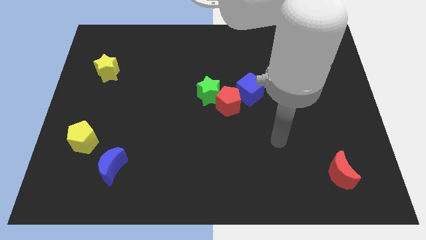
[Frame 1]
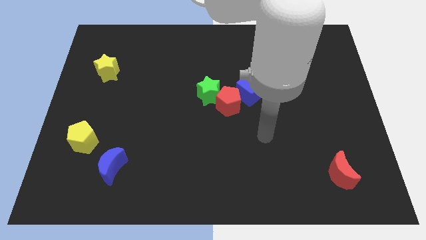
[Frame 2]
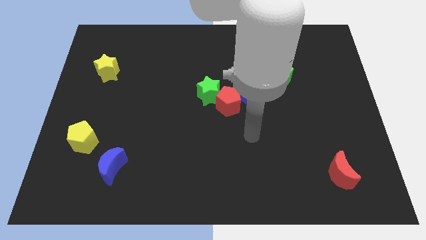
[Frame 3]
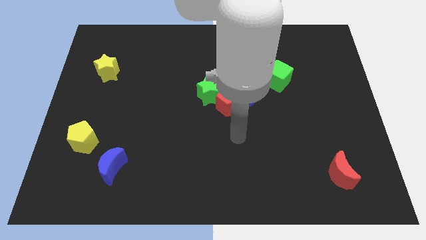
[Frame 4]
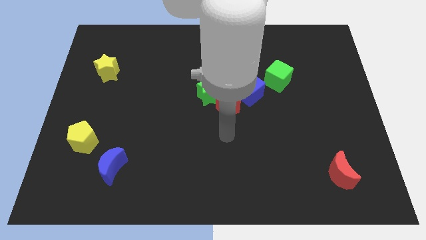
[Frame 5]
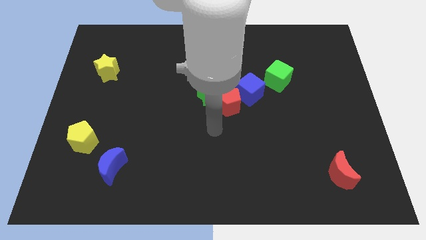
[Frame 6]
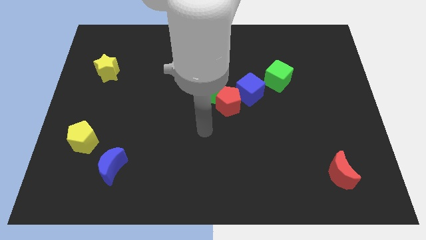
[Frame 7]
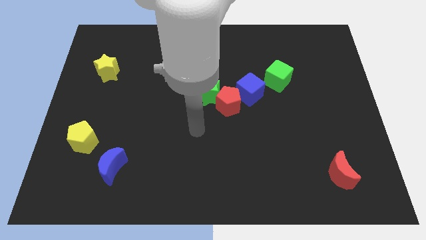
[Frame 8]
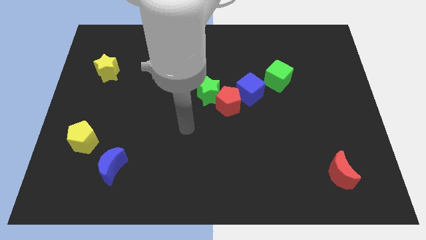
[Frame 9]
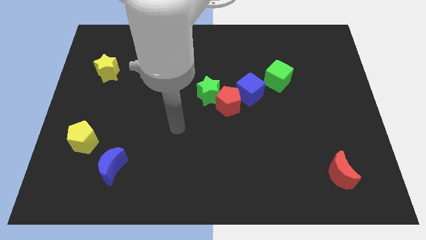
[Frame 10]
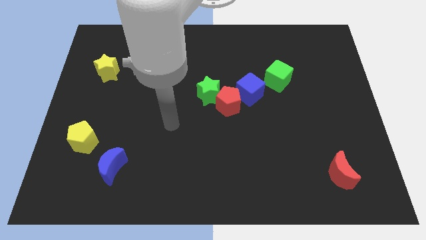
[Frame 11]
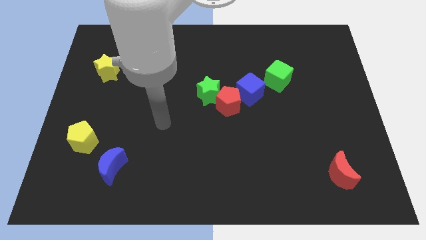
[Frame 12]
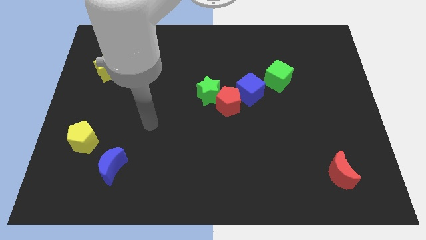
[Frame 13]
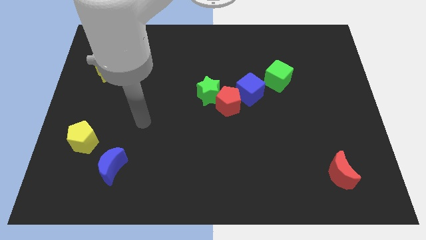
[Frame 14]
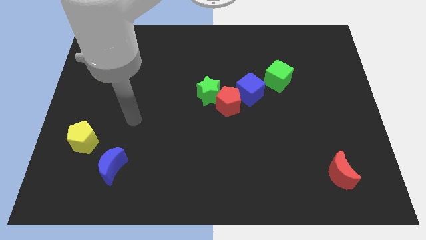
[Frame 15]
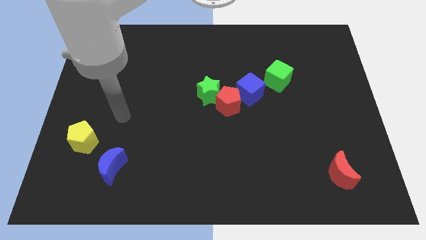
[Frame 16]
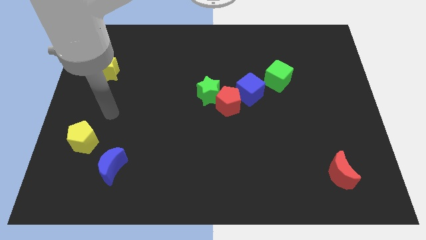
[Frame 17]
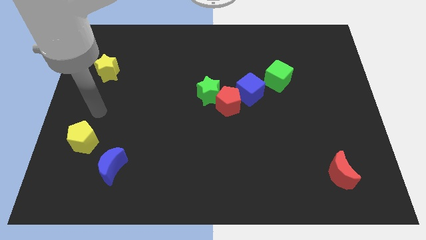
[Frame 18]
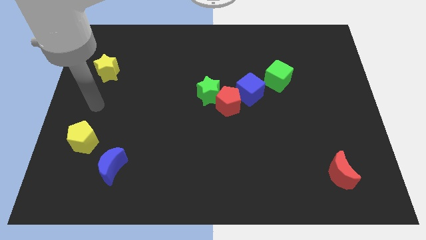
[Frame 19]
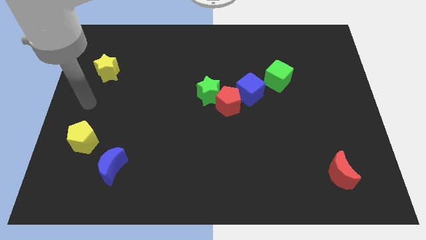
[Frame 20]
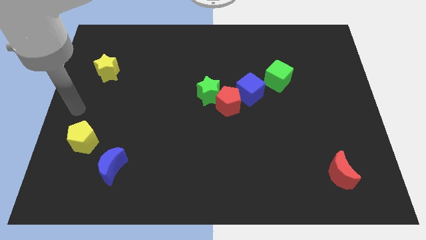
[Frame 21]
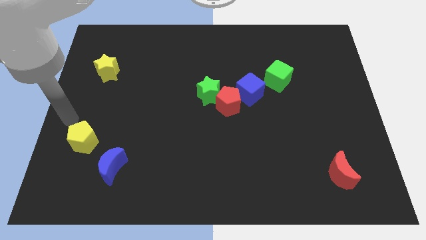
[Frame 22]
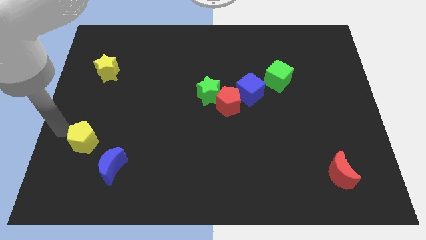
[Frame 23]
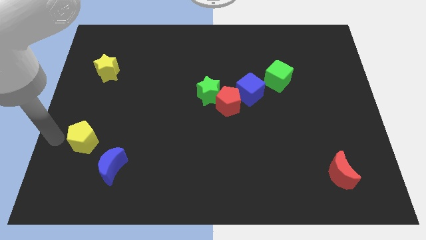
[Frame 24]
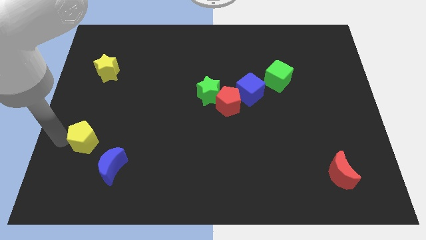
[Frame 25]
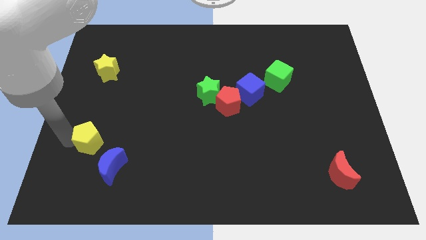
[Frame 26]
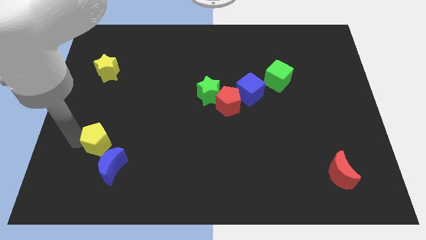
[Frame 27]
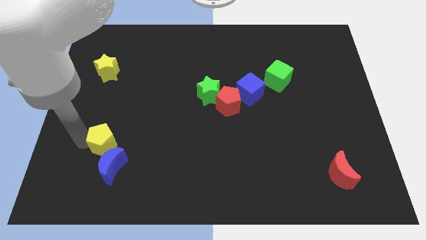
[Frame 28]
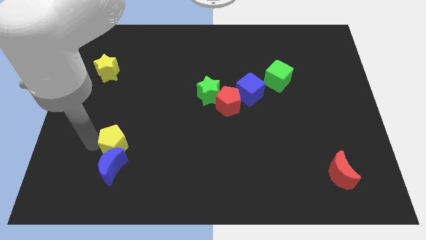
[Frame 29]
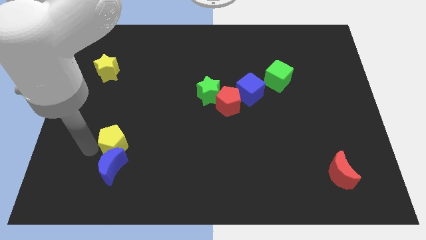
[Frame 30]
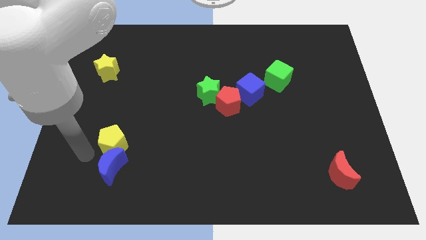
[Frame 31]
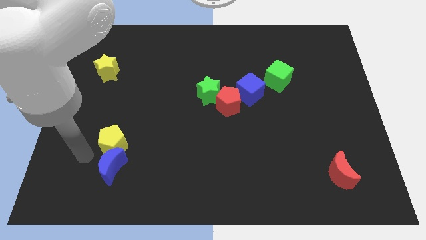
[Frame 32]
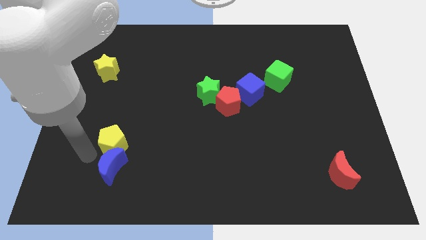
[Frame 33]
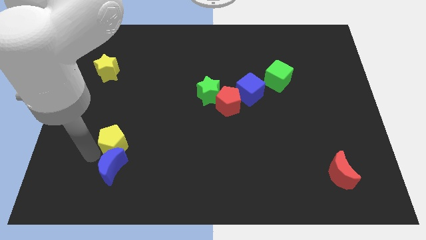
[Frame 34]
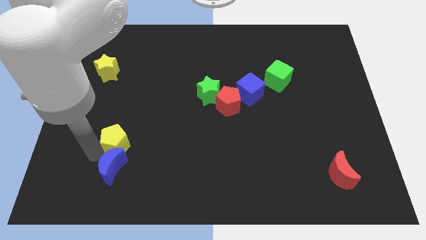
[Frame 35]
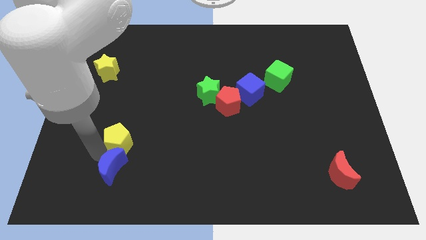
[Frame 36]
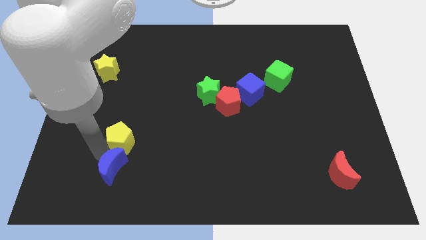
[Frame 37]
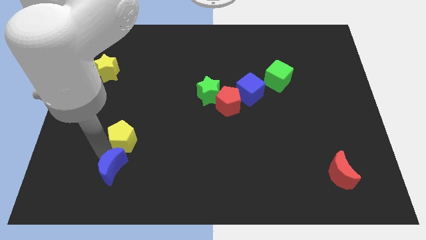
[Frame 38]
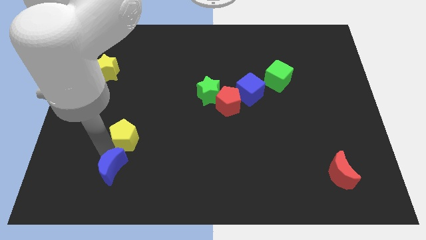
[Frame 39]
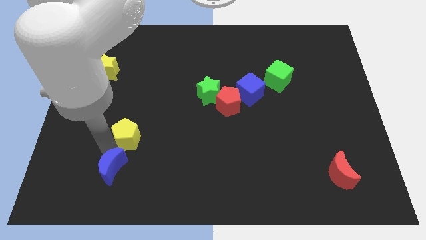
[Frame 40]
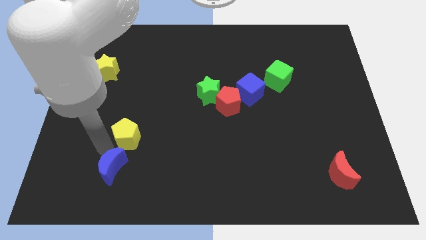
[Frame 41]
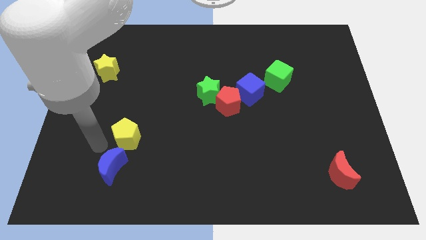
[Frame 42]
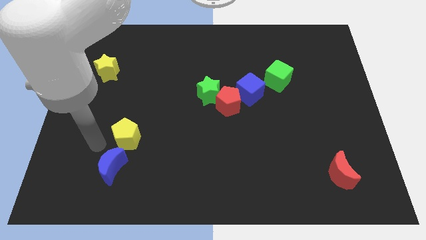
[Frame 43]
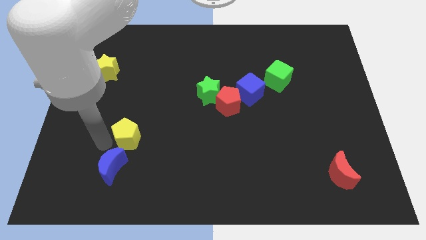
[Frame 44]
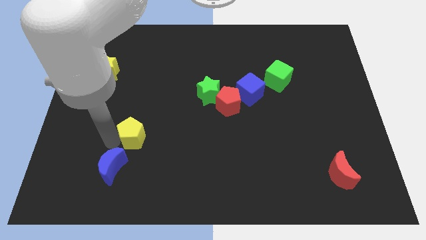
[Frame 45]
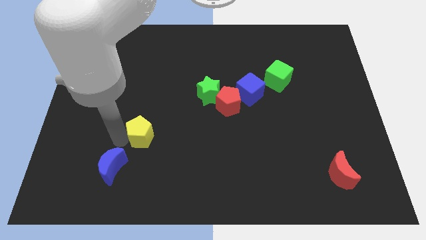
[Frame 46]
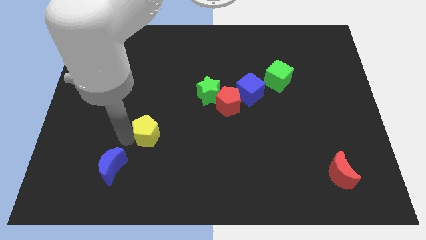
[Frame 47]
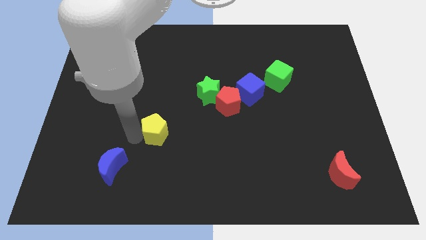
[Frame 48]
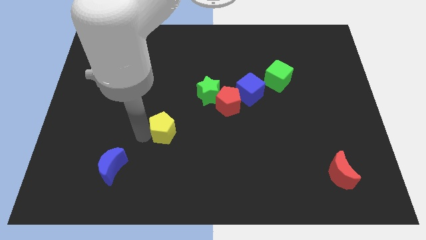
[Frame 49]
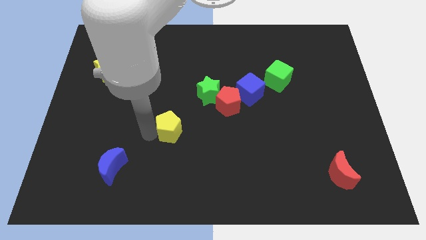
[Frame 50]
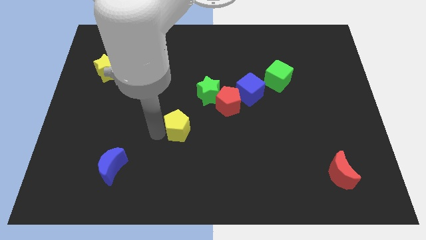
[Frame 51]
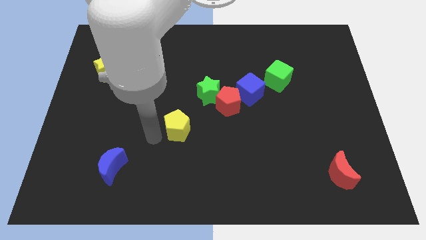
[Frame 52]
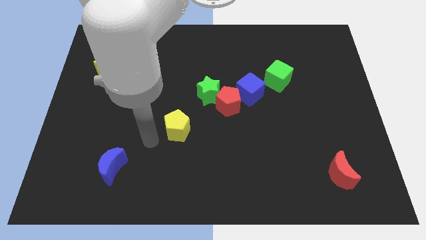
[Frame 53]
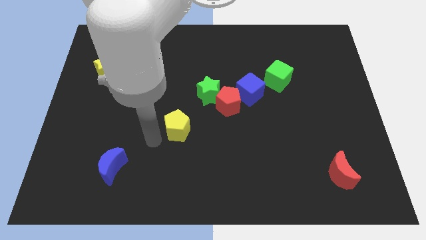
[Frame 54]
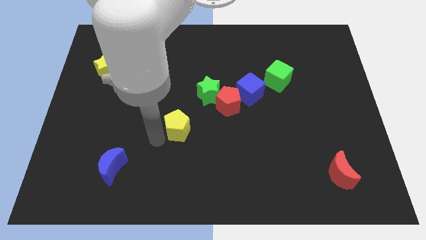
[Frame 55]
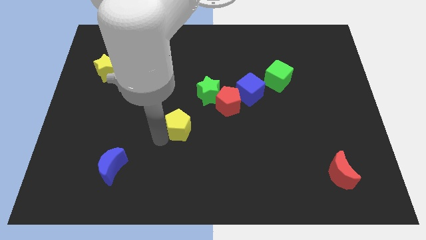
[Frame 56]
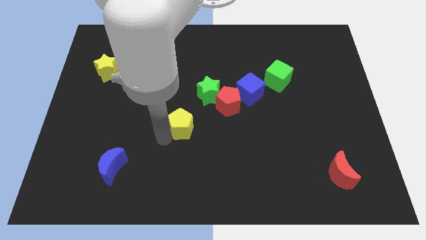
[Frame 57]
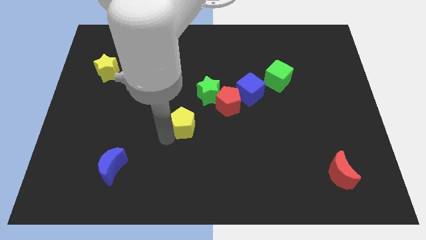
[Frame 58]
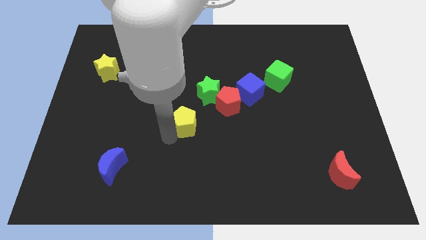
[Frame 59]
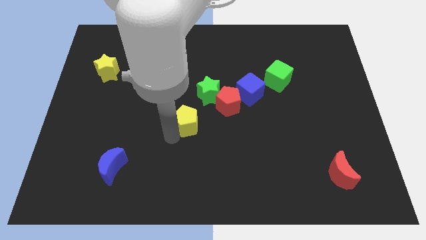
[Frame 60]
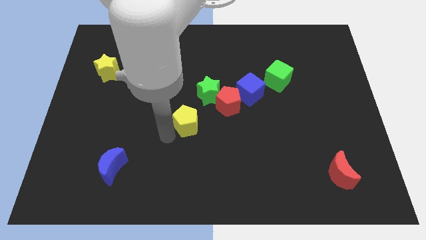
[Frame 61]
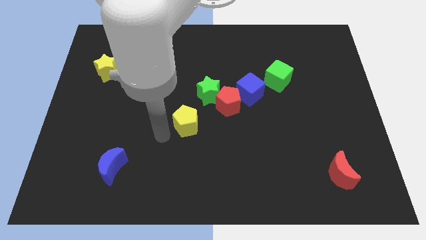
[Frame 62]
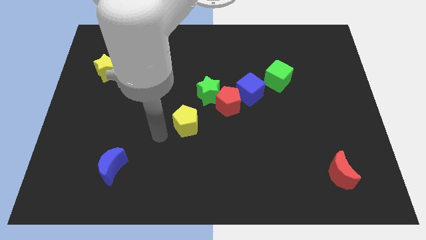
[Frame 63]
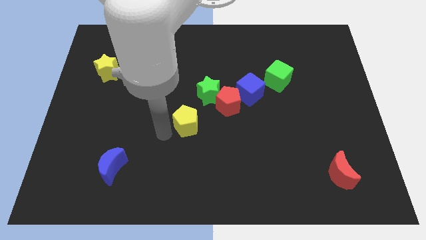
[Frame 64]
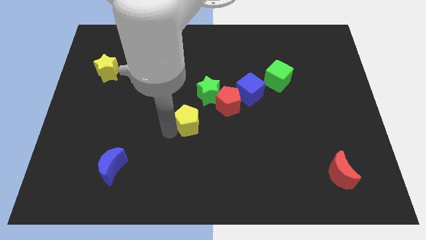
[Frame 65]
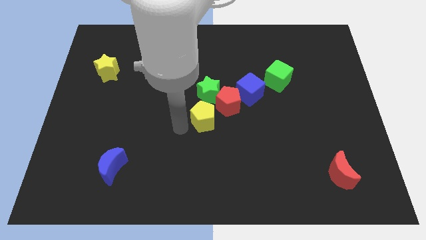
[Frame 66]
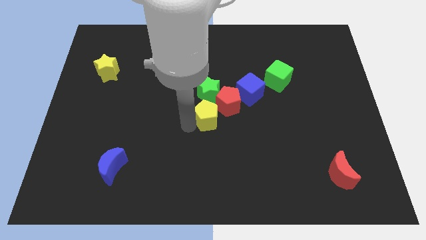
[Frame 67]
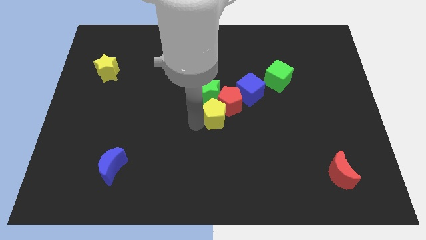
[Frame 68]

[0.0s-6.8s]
put the yellow pentagon next to the red pentagon

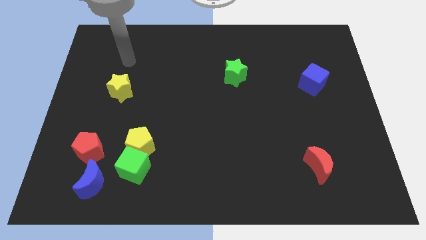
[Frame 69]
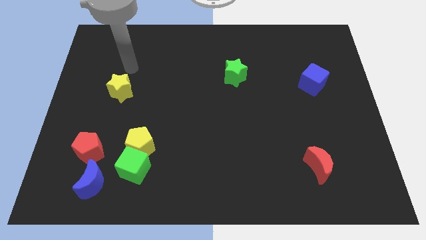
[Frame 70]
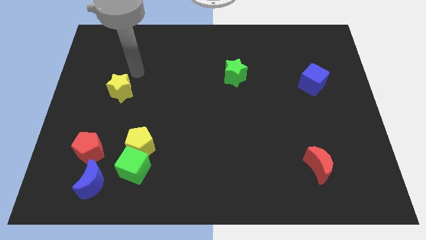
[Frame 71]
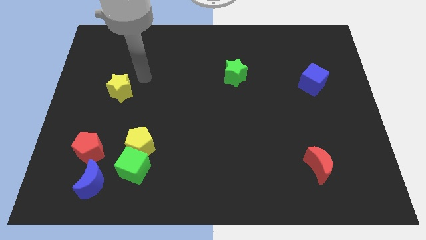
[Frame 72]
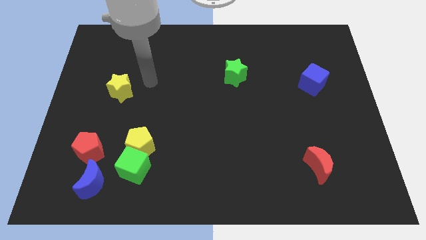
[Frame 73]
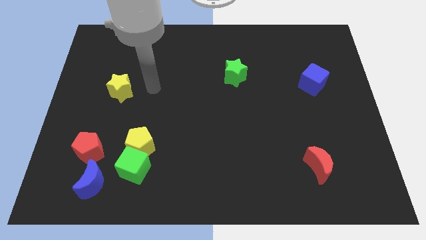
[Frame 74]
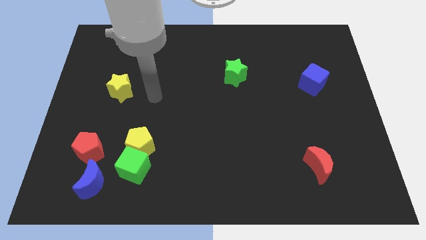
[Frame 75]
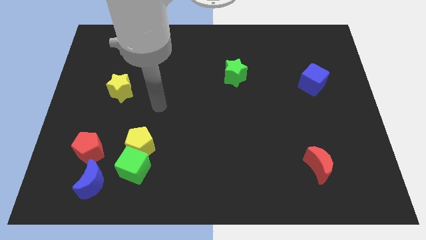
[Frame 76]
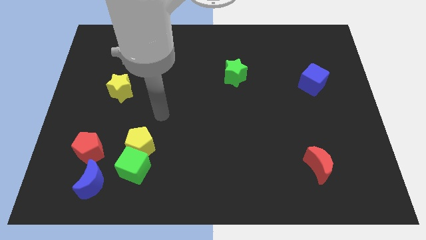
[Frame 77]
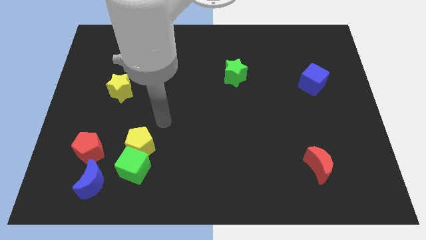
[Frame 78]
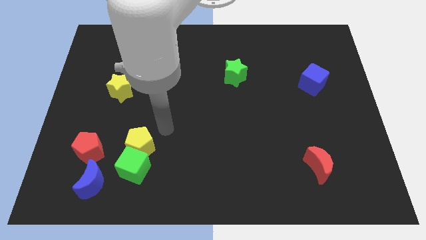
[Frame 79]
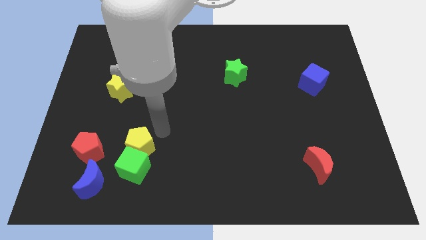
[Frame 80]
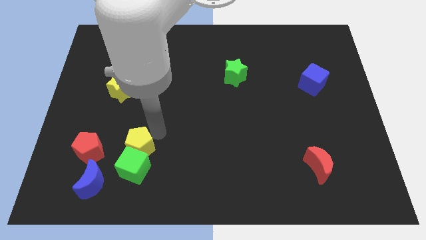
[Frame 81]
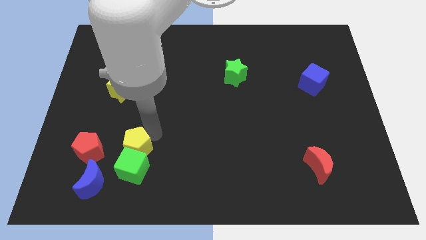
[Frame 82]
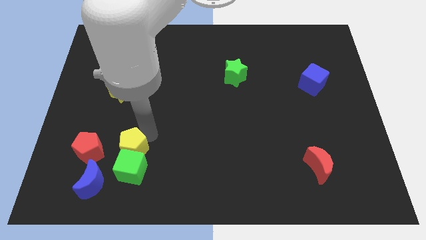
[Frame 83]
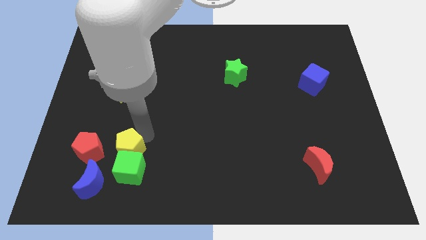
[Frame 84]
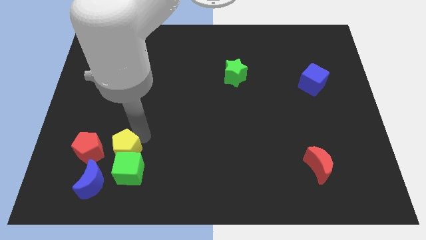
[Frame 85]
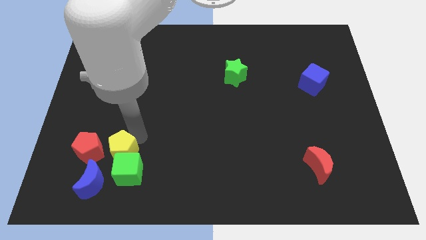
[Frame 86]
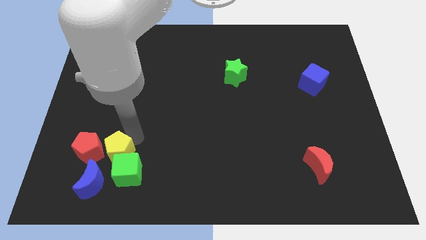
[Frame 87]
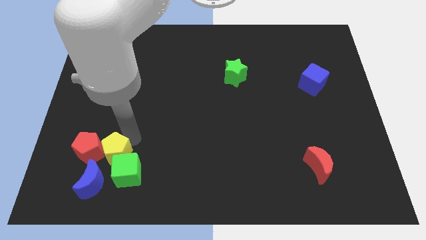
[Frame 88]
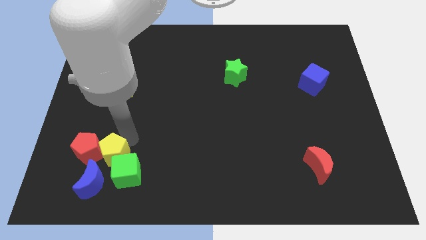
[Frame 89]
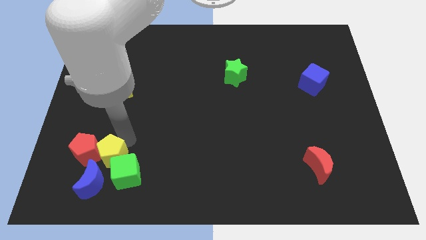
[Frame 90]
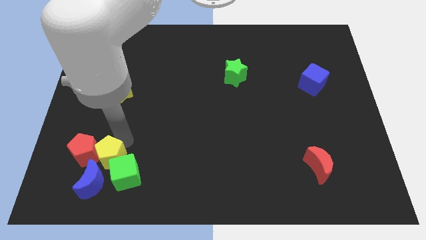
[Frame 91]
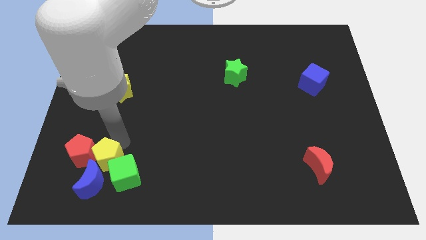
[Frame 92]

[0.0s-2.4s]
put the yellow pentagon to the blue moon
